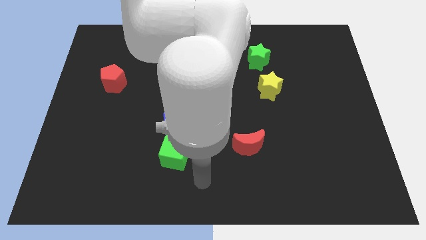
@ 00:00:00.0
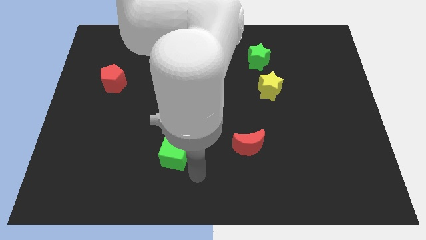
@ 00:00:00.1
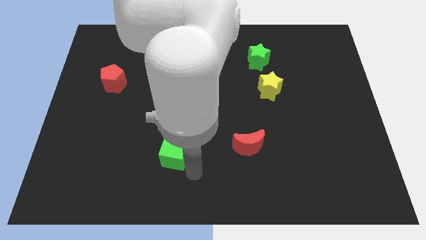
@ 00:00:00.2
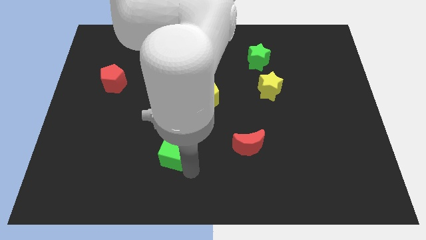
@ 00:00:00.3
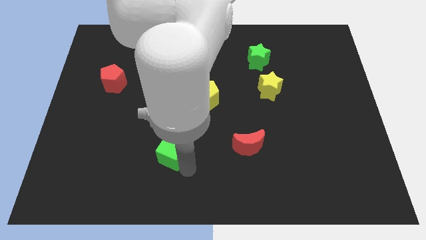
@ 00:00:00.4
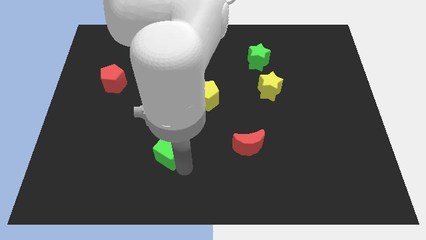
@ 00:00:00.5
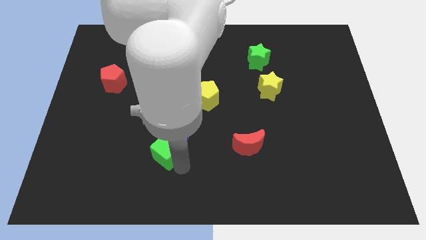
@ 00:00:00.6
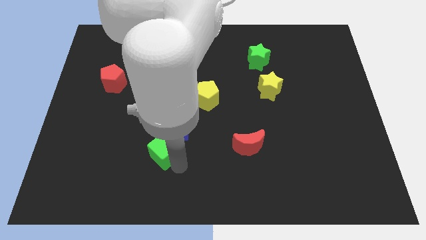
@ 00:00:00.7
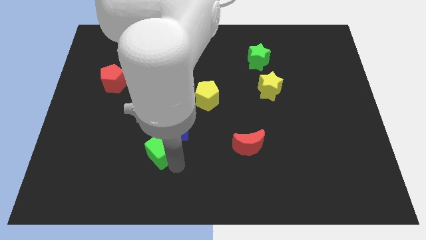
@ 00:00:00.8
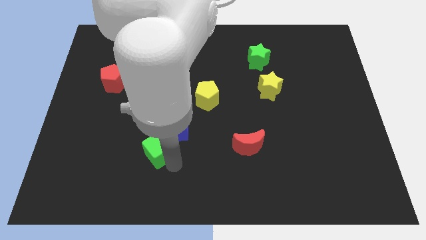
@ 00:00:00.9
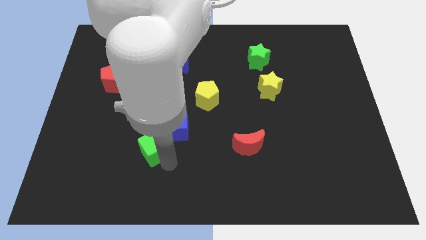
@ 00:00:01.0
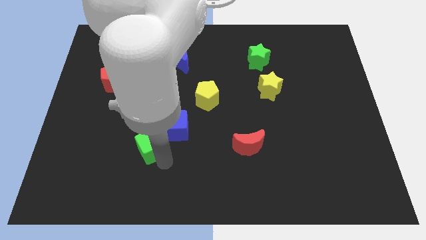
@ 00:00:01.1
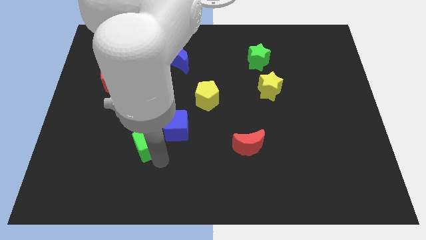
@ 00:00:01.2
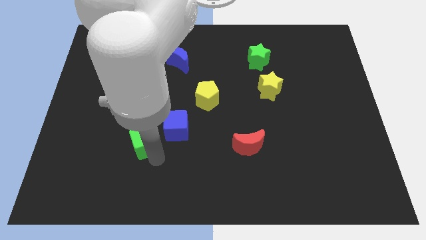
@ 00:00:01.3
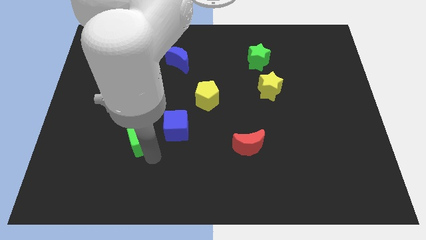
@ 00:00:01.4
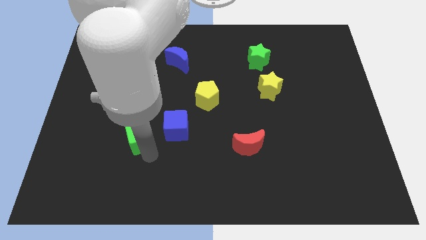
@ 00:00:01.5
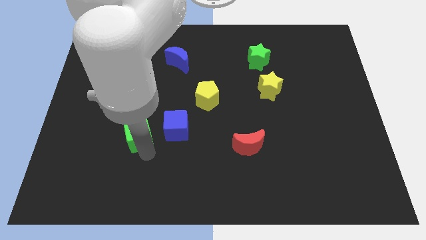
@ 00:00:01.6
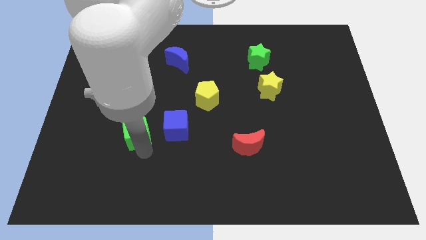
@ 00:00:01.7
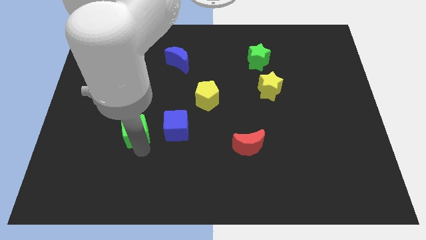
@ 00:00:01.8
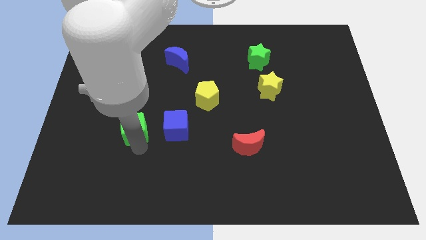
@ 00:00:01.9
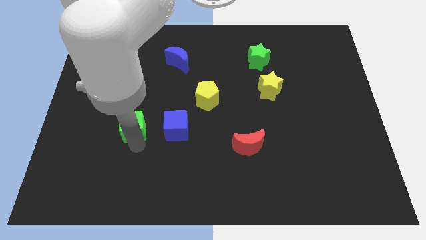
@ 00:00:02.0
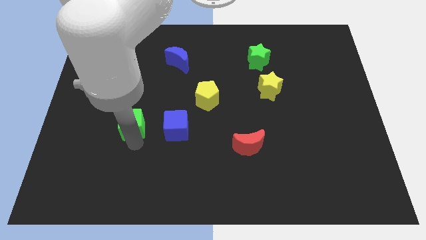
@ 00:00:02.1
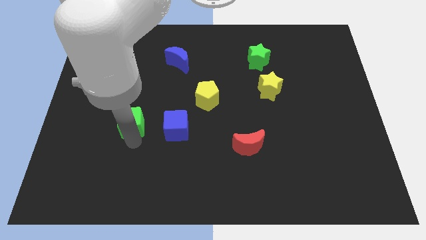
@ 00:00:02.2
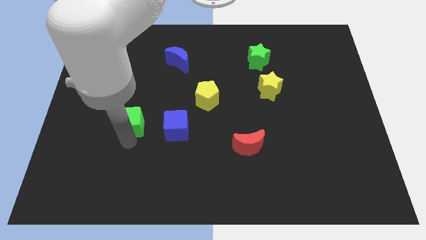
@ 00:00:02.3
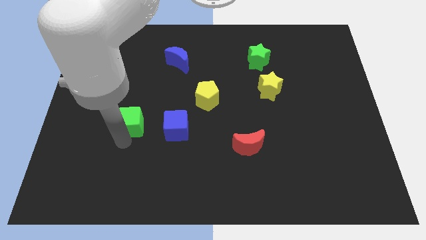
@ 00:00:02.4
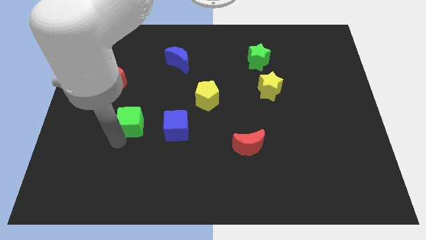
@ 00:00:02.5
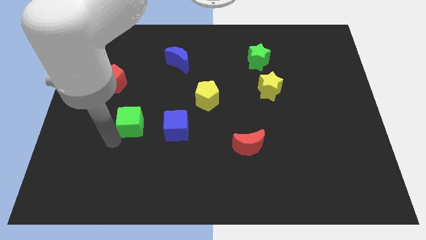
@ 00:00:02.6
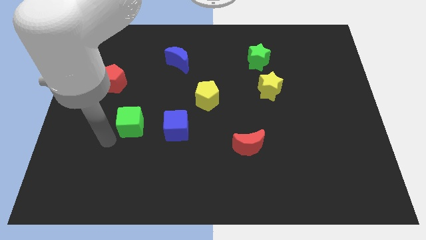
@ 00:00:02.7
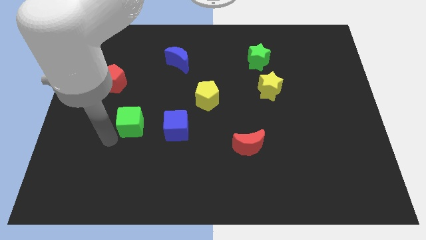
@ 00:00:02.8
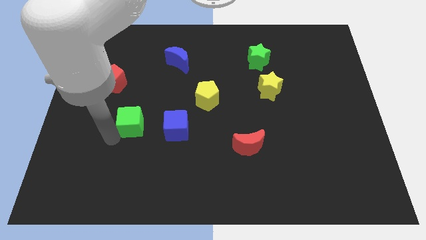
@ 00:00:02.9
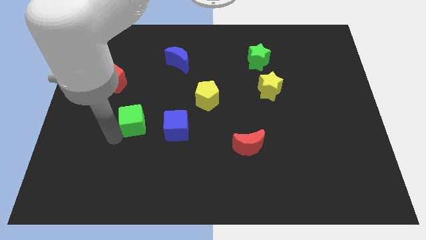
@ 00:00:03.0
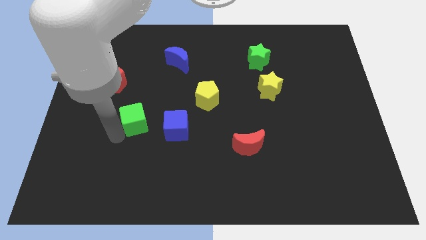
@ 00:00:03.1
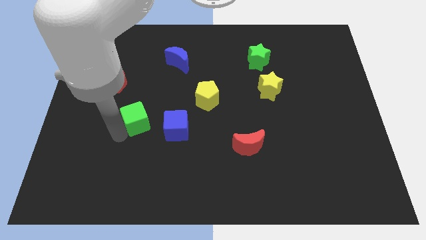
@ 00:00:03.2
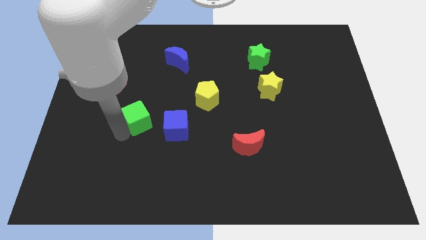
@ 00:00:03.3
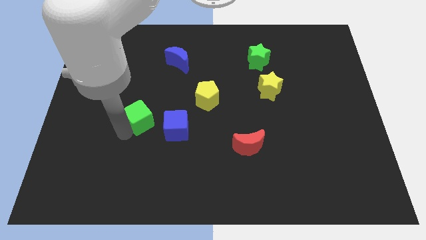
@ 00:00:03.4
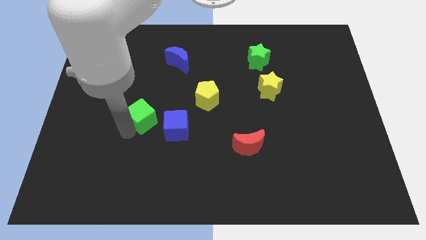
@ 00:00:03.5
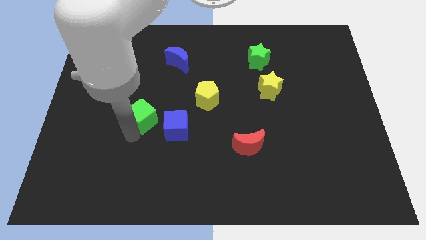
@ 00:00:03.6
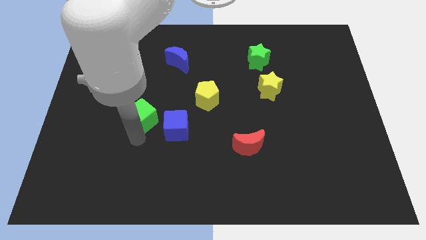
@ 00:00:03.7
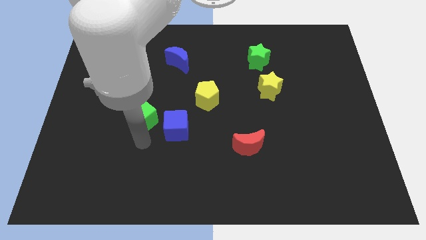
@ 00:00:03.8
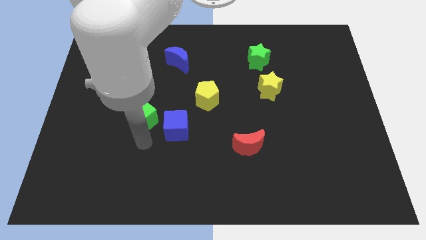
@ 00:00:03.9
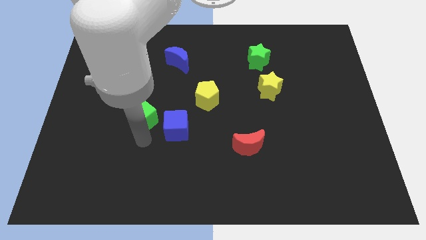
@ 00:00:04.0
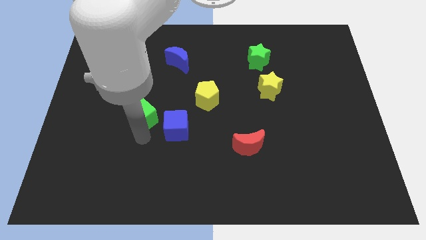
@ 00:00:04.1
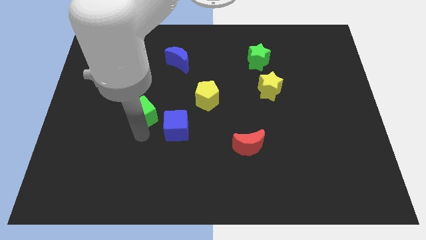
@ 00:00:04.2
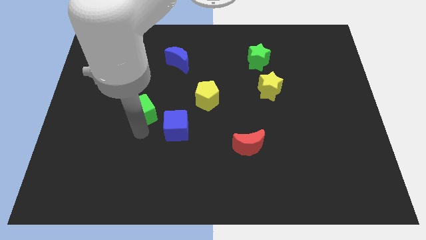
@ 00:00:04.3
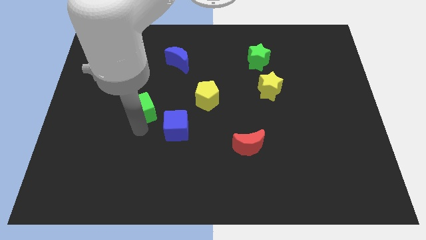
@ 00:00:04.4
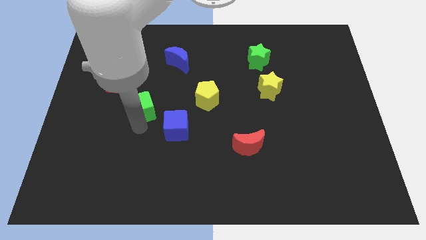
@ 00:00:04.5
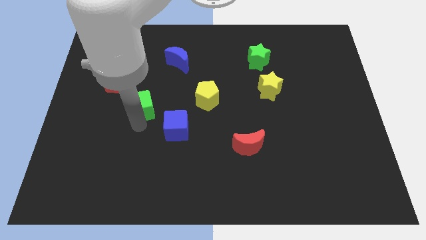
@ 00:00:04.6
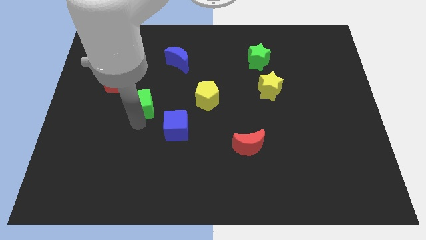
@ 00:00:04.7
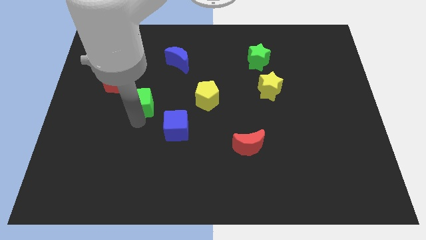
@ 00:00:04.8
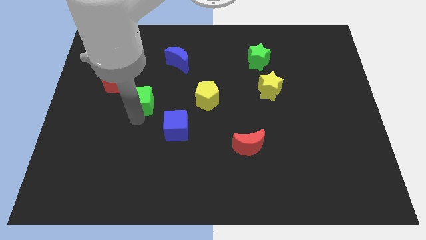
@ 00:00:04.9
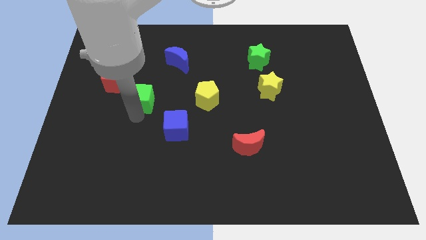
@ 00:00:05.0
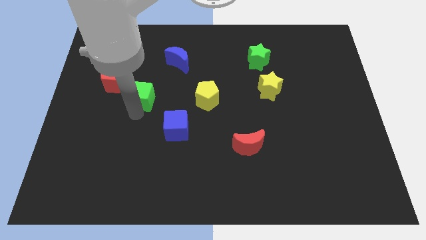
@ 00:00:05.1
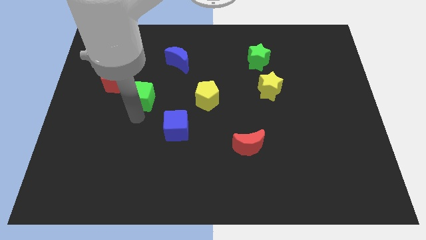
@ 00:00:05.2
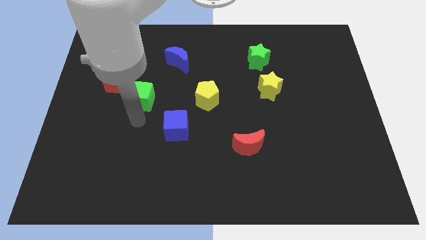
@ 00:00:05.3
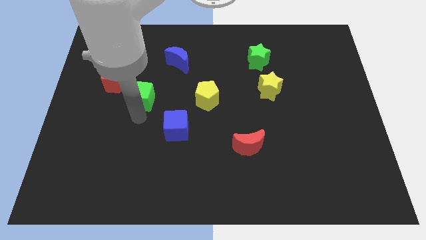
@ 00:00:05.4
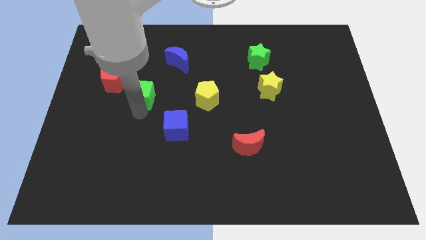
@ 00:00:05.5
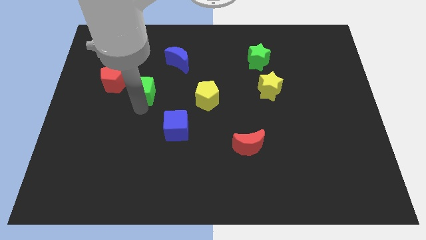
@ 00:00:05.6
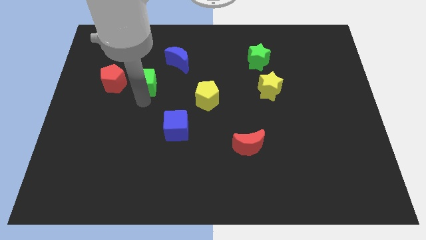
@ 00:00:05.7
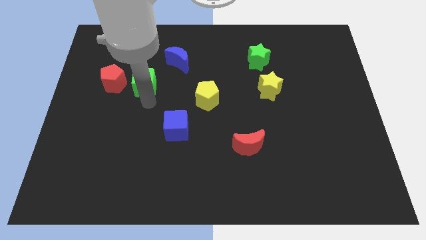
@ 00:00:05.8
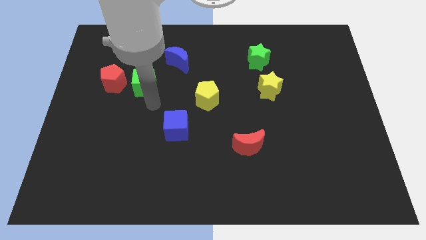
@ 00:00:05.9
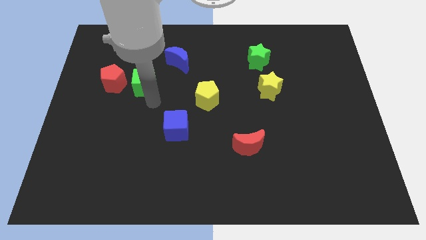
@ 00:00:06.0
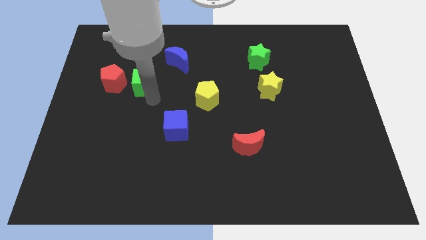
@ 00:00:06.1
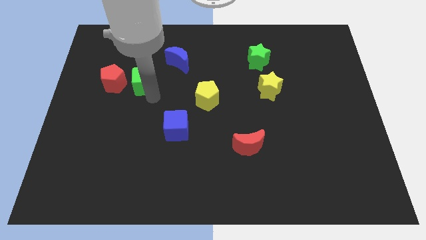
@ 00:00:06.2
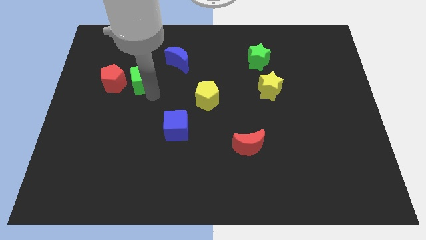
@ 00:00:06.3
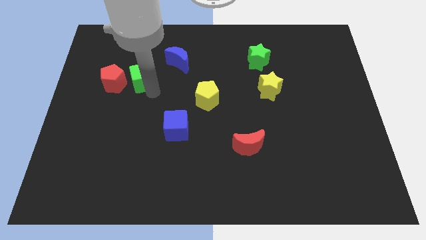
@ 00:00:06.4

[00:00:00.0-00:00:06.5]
put the green cube to the top right of the red pentagon

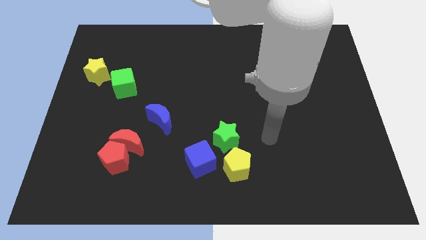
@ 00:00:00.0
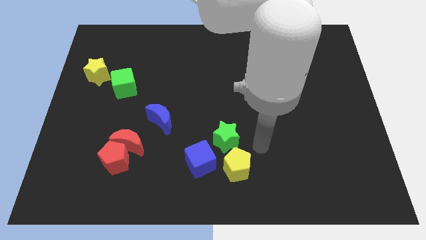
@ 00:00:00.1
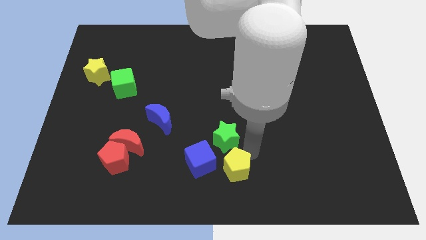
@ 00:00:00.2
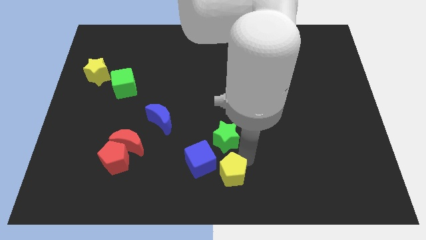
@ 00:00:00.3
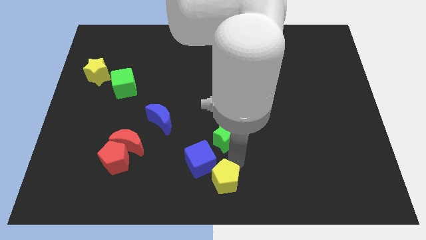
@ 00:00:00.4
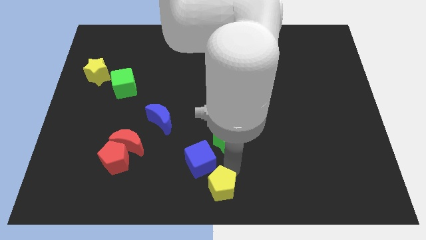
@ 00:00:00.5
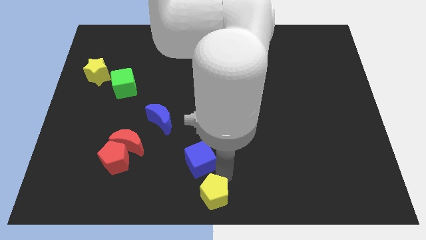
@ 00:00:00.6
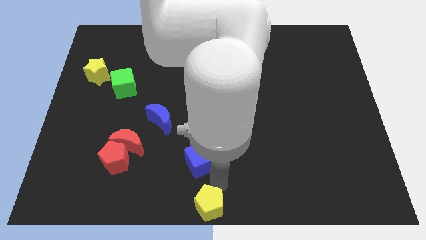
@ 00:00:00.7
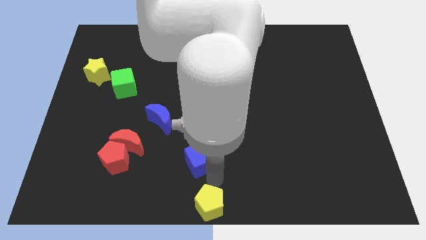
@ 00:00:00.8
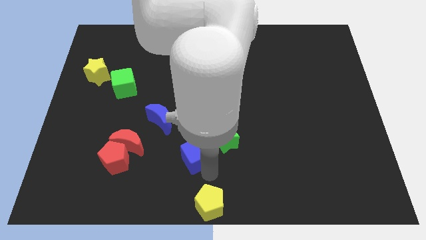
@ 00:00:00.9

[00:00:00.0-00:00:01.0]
push the blue cube to the bottom right side of the blue moon
